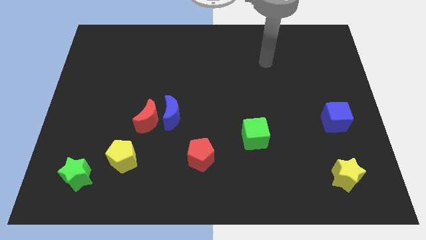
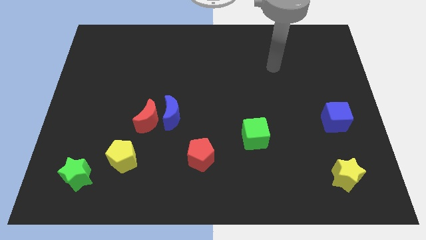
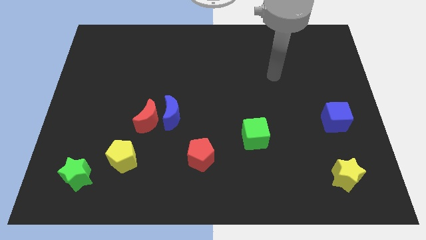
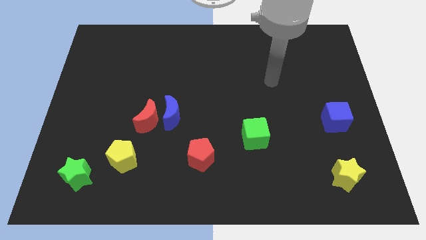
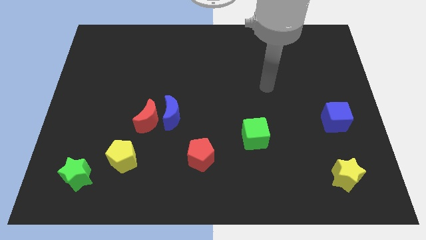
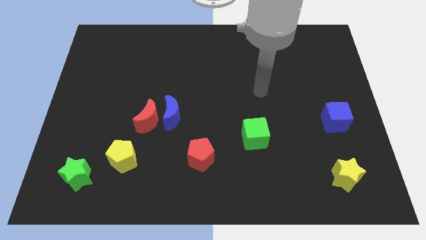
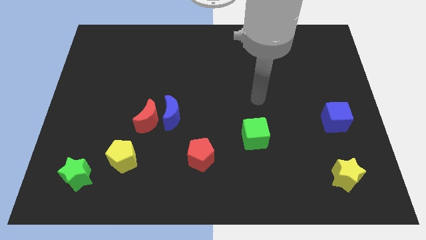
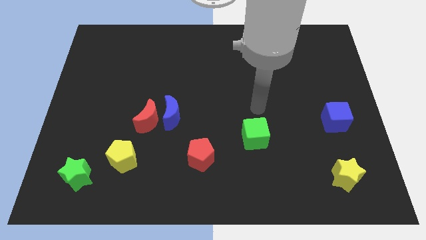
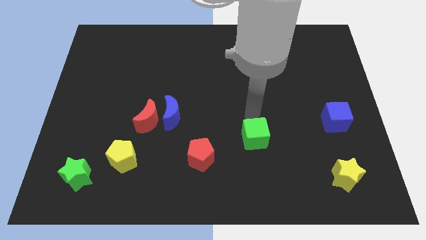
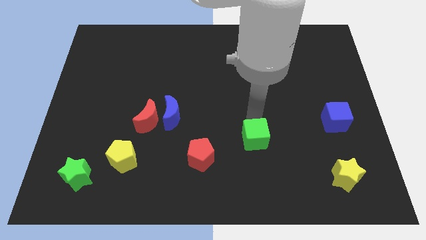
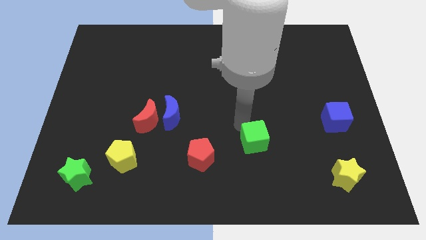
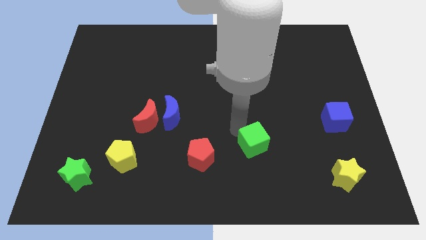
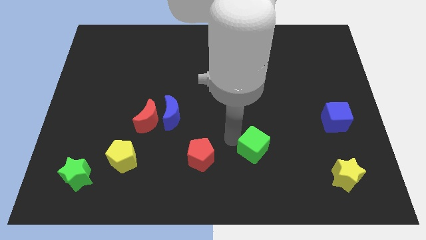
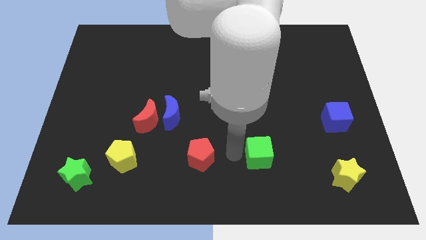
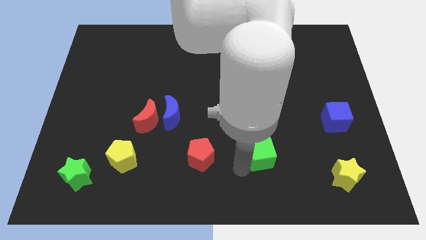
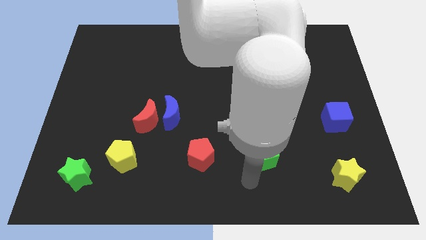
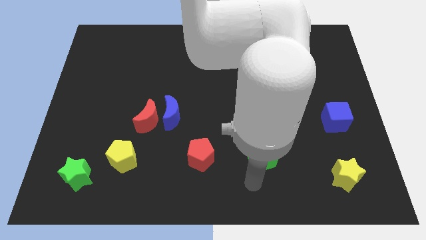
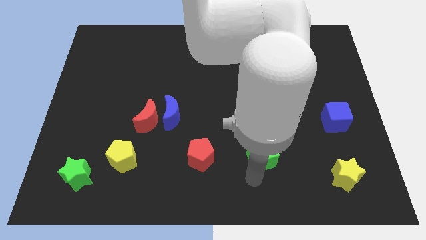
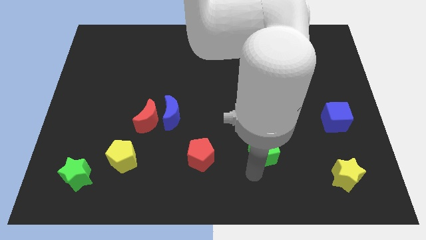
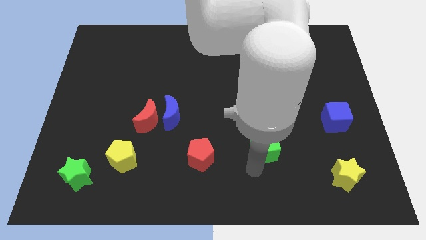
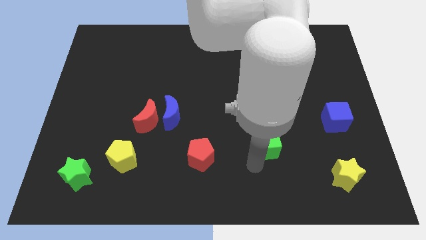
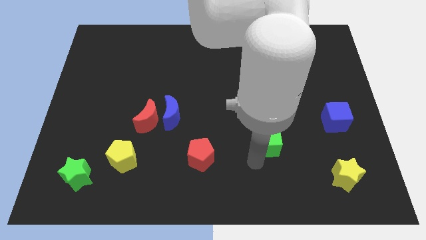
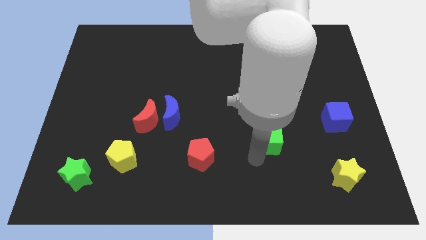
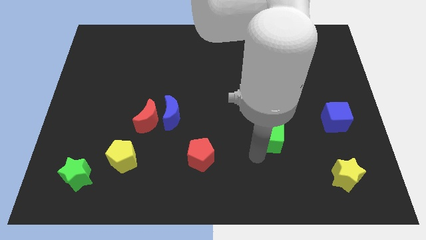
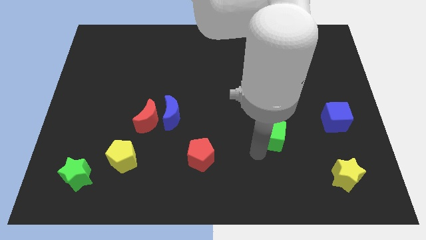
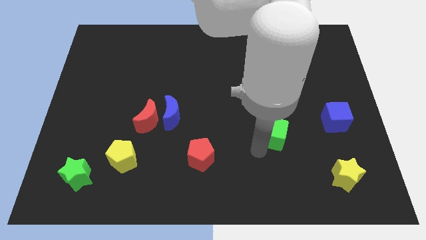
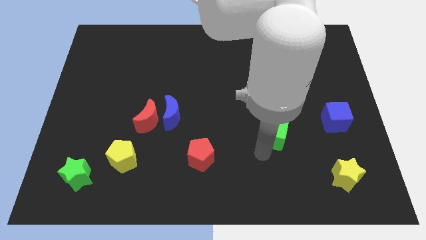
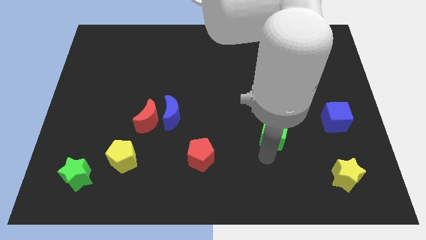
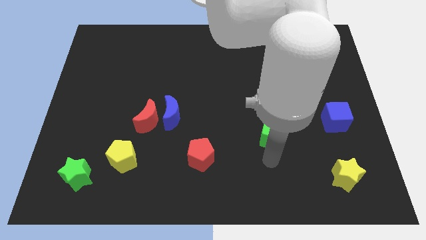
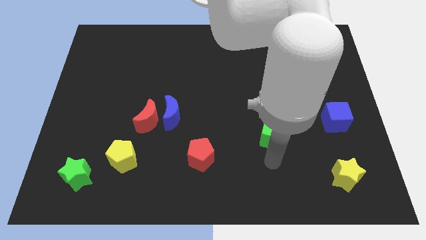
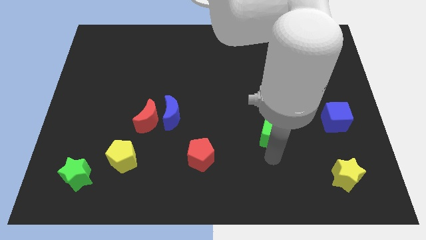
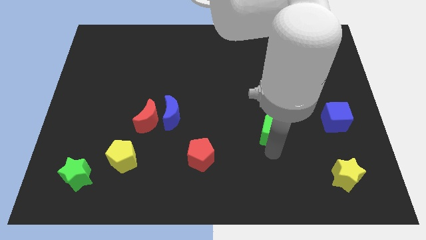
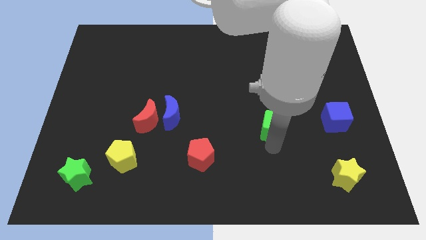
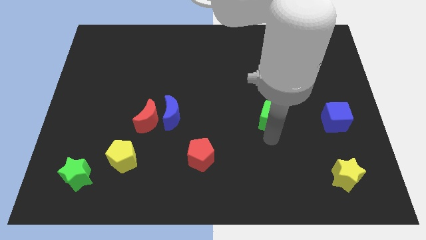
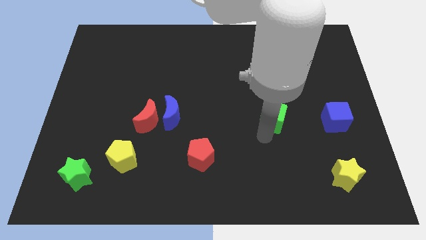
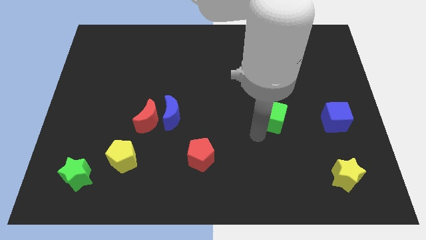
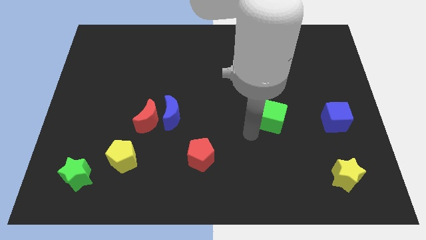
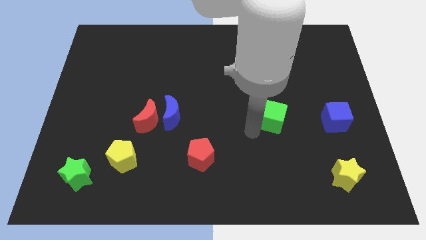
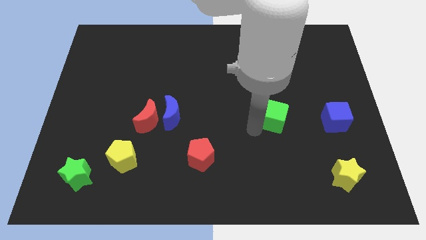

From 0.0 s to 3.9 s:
slightly move the green cube up and to the right diagonally

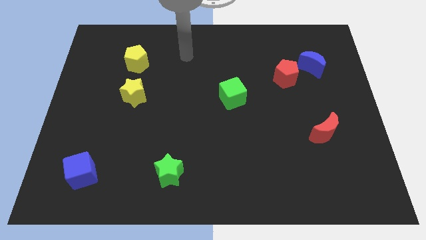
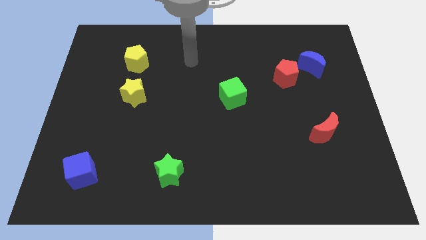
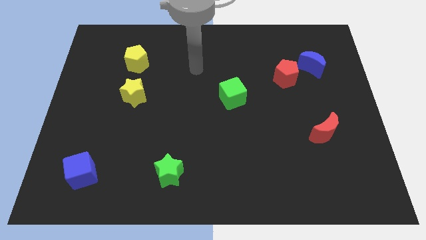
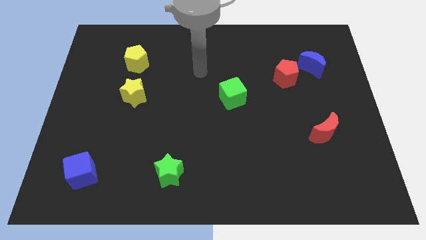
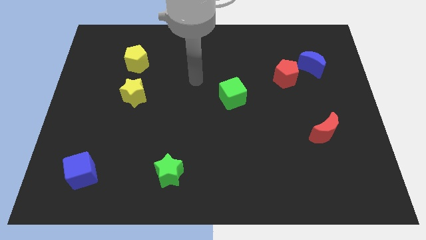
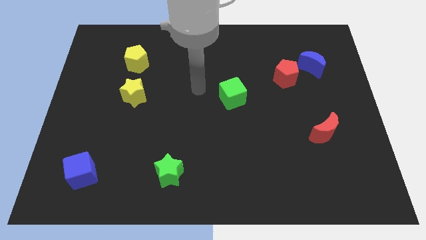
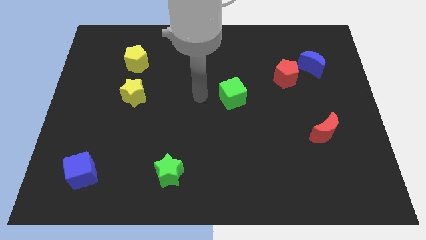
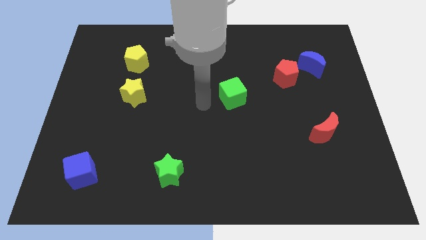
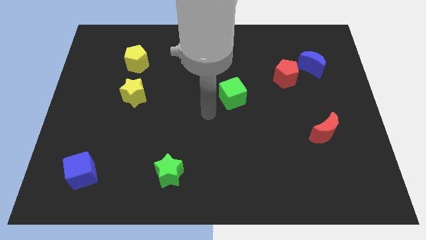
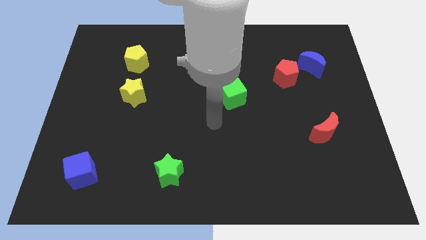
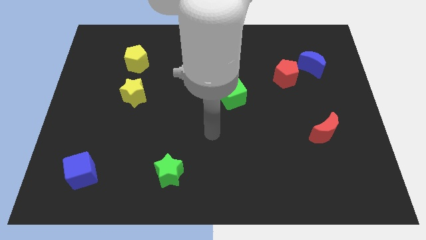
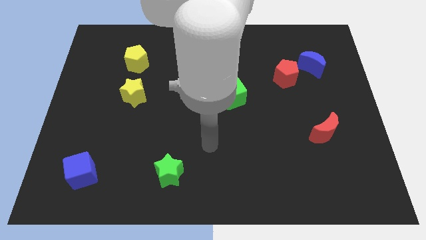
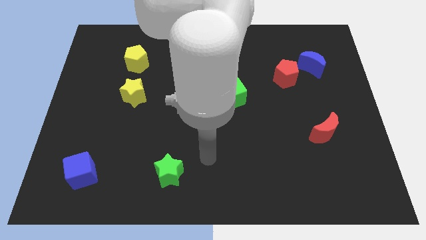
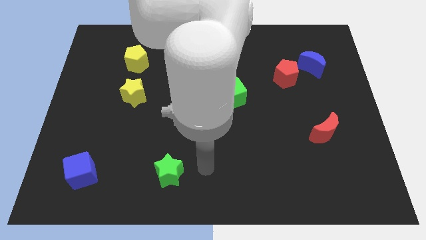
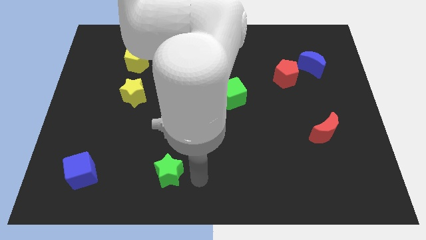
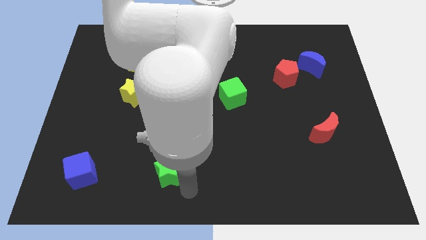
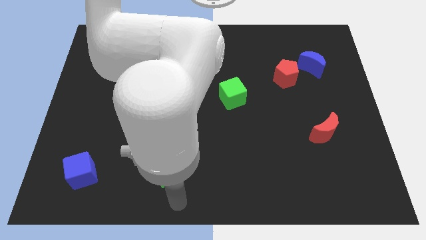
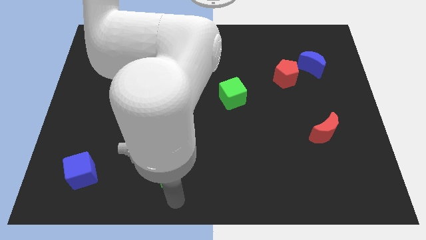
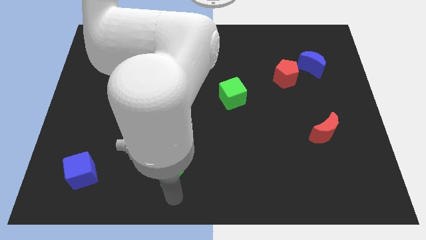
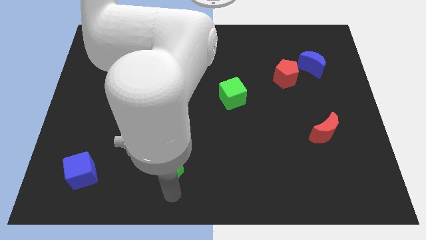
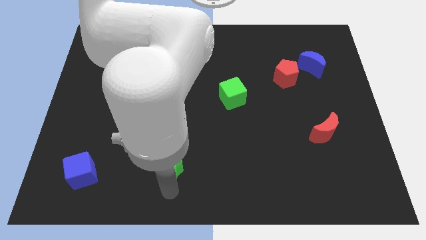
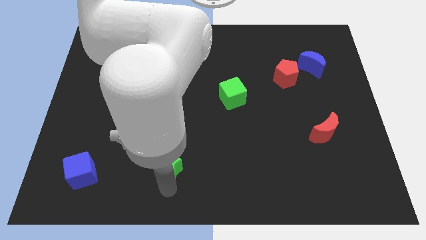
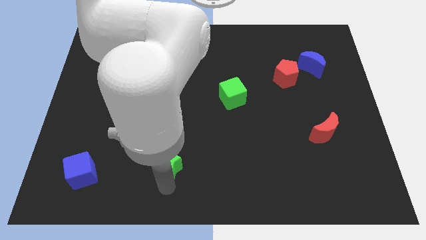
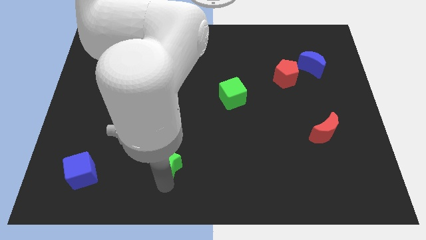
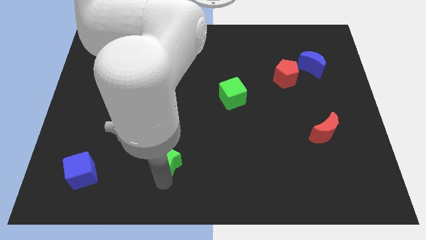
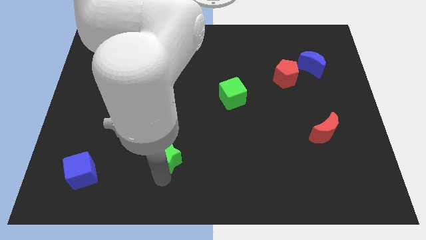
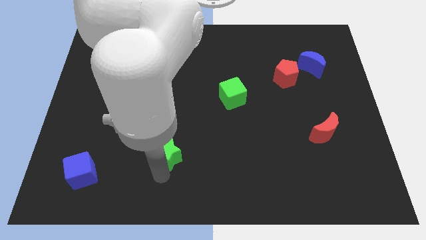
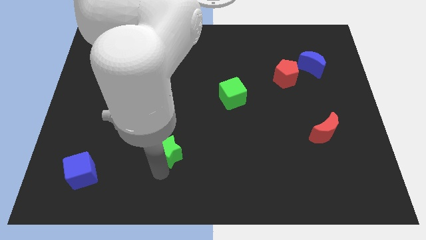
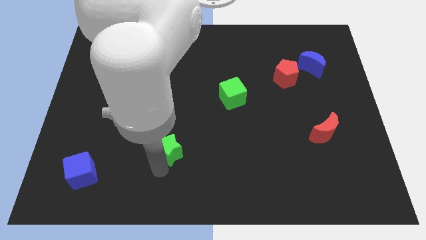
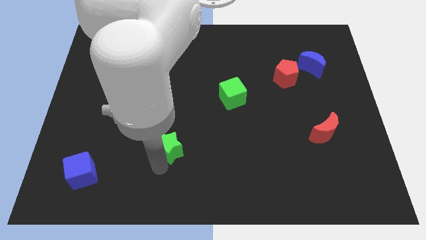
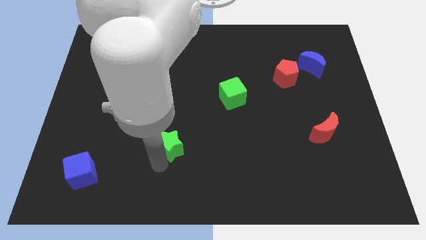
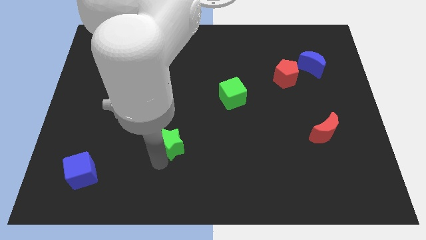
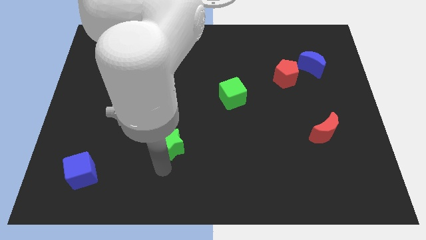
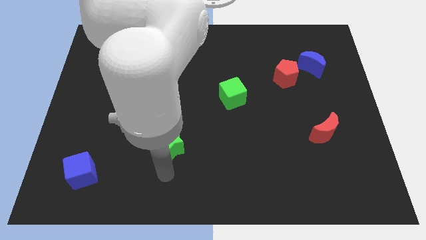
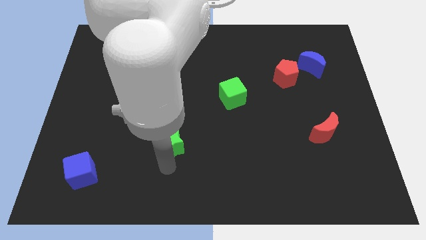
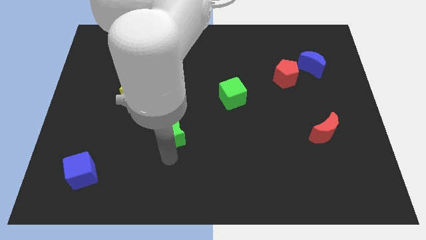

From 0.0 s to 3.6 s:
slightly move the green star up

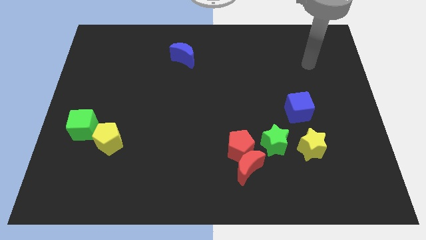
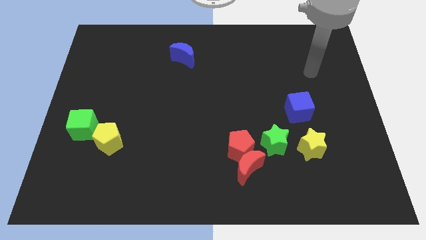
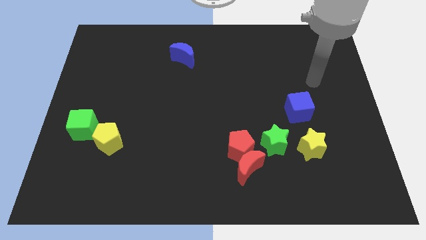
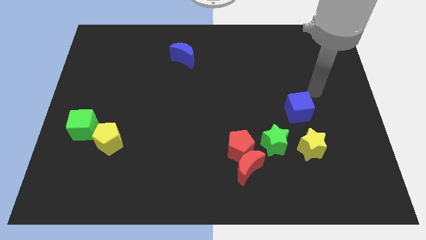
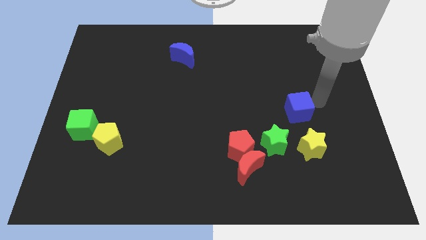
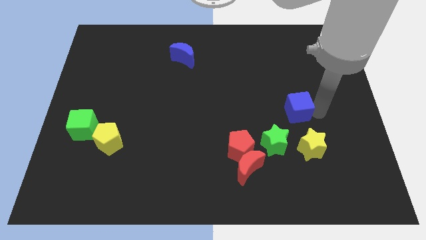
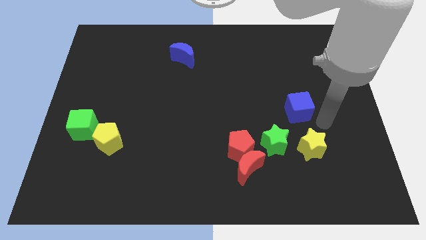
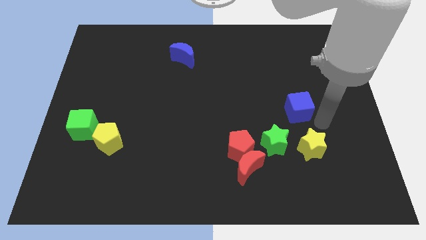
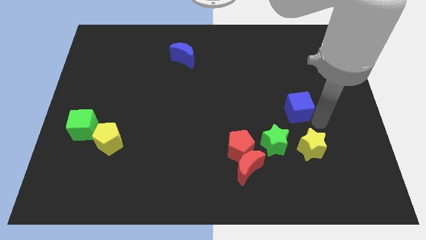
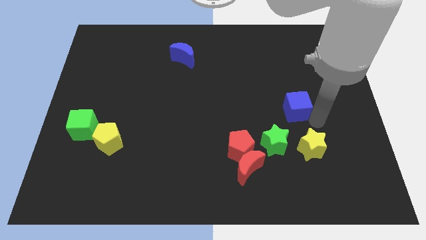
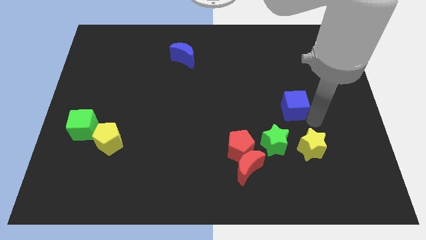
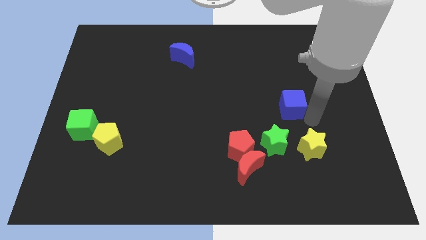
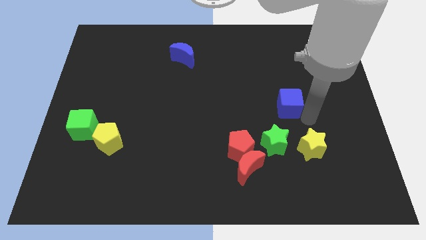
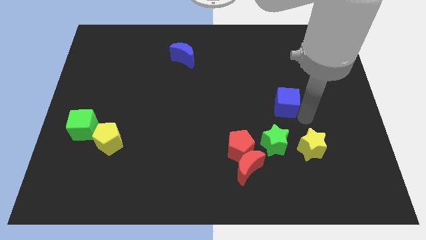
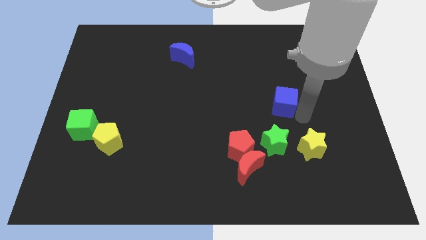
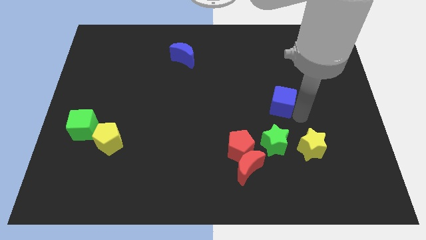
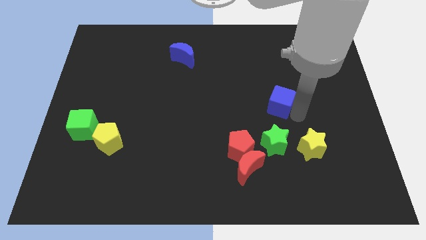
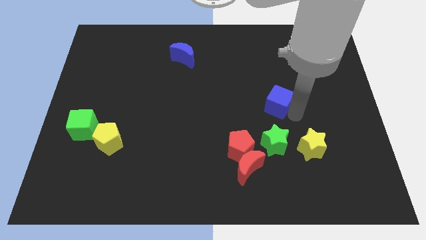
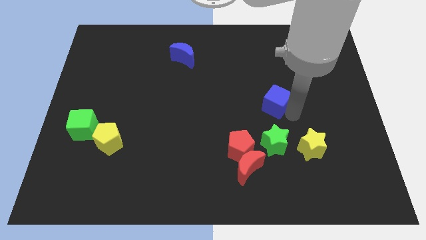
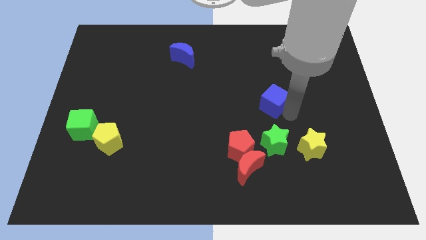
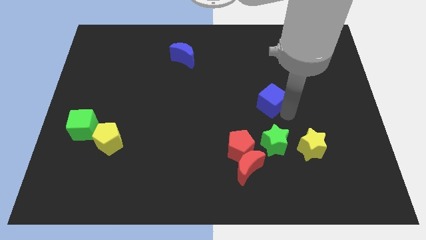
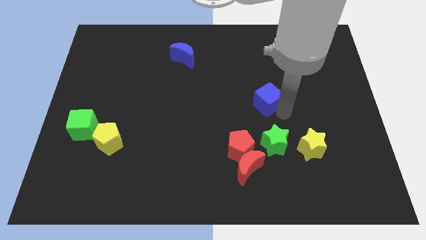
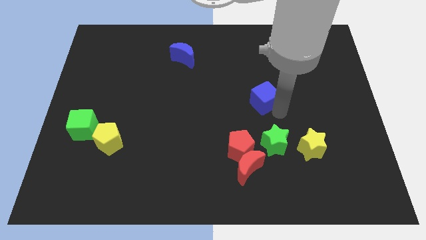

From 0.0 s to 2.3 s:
move the blue cube a little up and left
